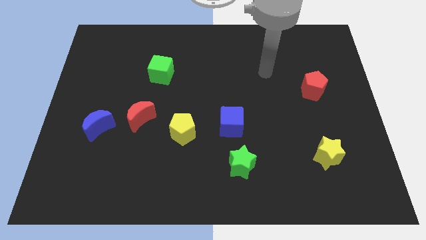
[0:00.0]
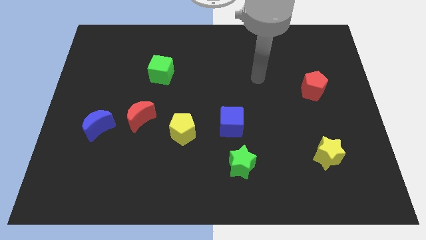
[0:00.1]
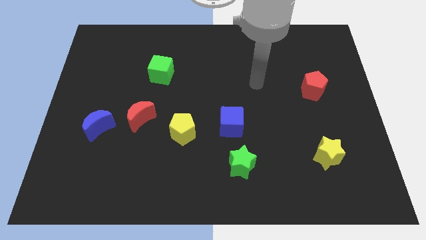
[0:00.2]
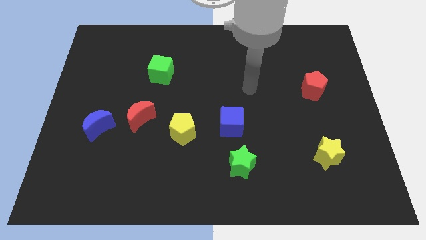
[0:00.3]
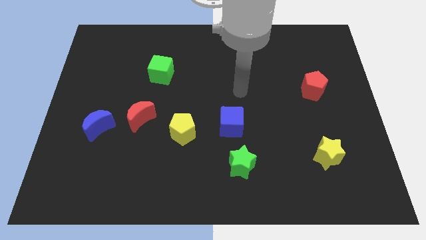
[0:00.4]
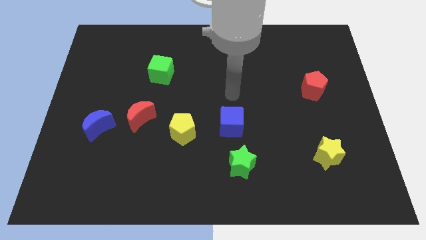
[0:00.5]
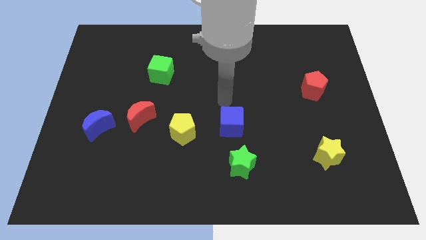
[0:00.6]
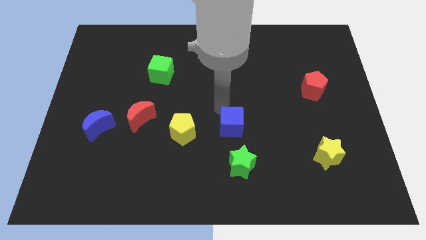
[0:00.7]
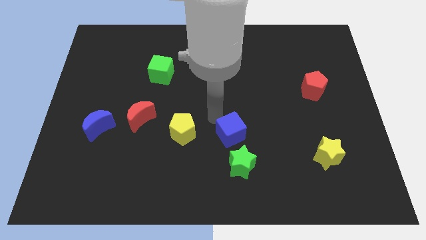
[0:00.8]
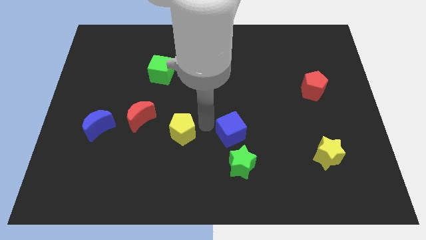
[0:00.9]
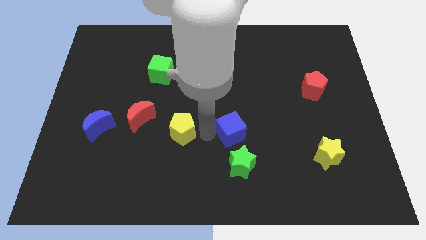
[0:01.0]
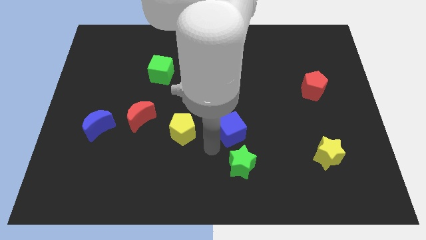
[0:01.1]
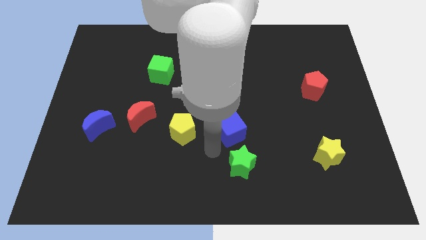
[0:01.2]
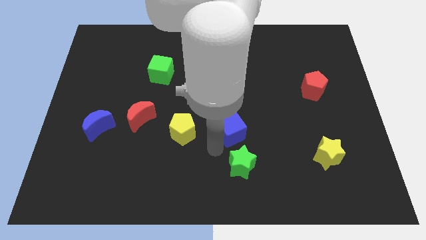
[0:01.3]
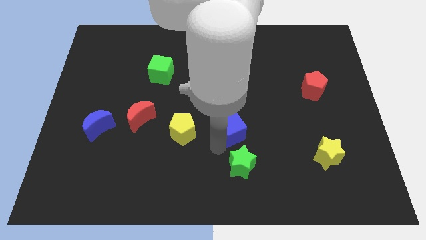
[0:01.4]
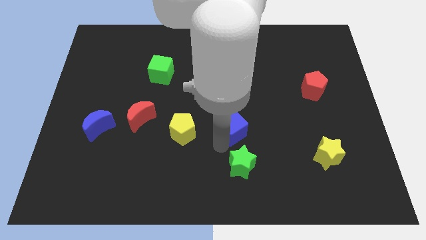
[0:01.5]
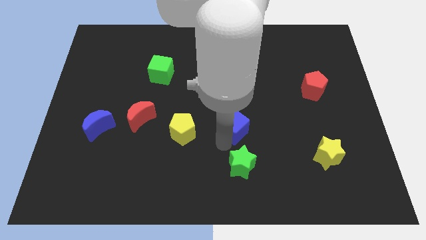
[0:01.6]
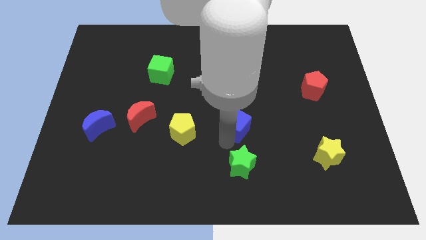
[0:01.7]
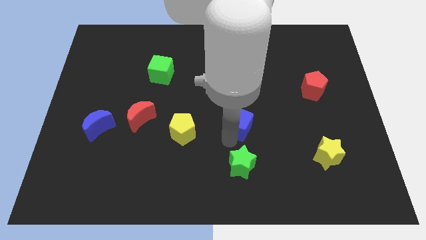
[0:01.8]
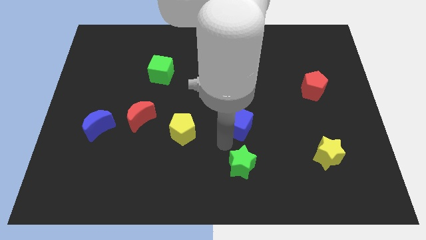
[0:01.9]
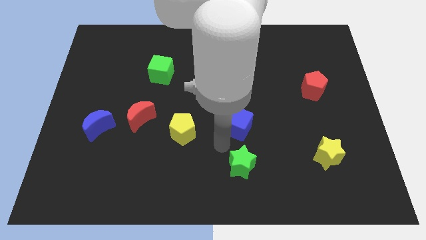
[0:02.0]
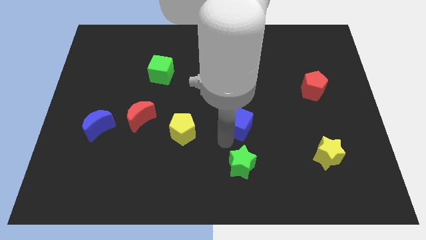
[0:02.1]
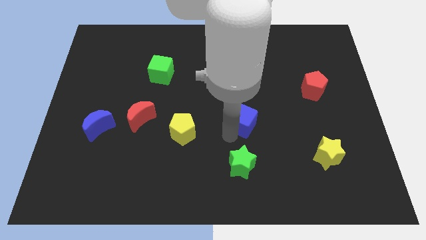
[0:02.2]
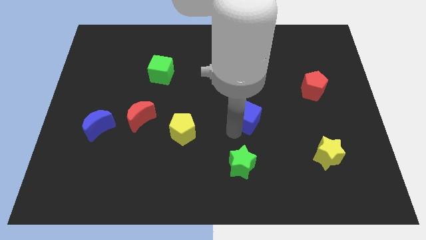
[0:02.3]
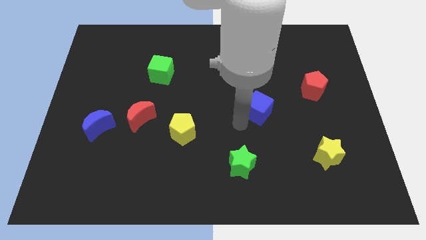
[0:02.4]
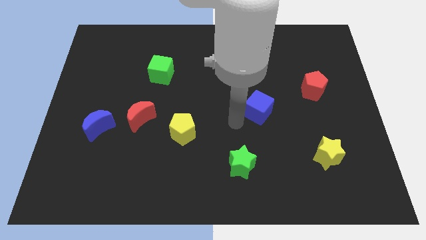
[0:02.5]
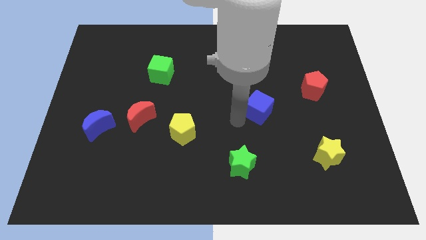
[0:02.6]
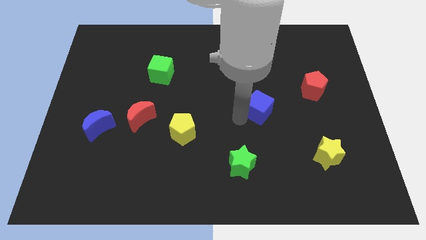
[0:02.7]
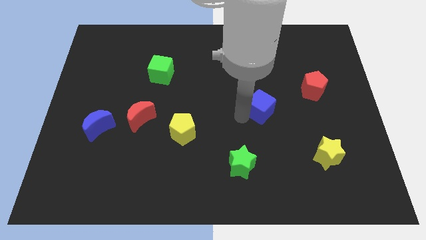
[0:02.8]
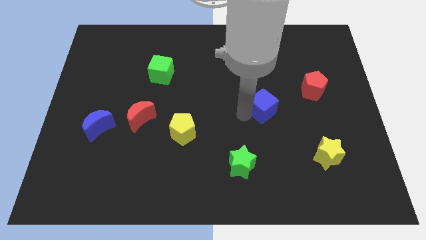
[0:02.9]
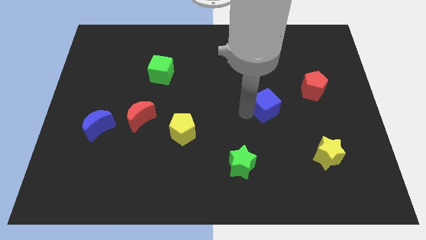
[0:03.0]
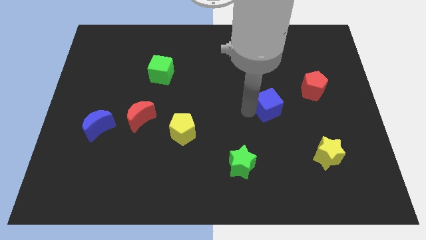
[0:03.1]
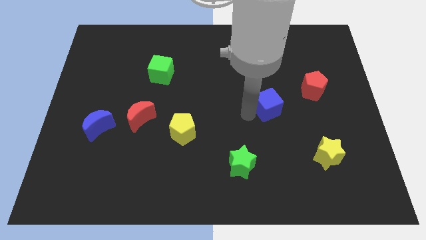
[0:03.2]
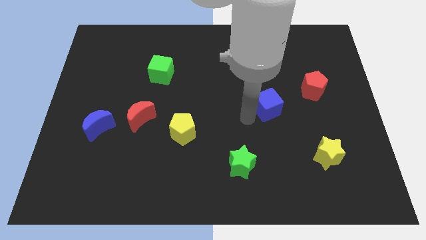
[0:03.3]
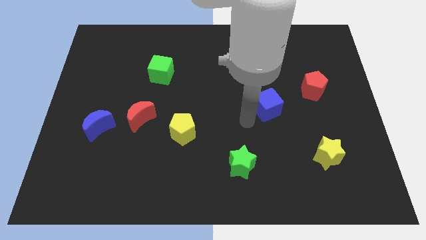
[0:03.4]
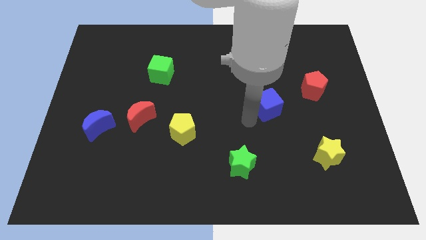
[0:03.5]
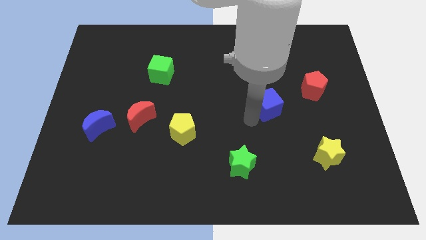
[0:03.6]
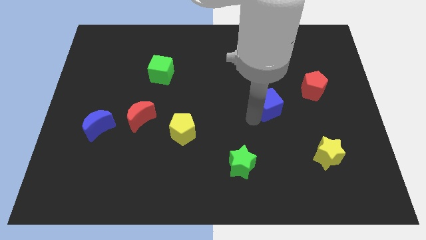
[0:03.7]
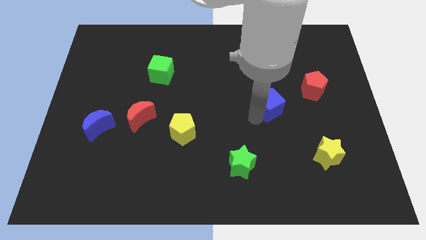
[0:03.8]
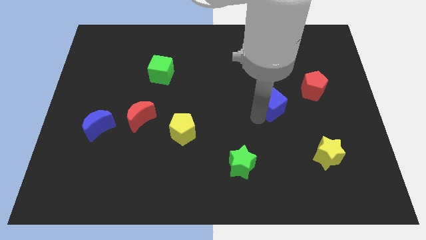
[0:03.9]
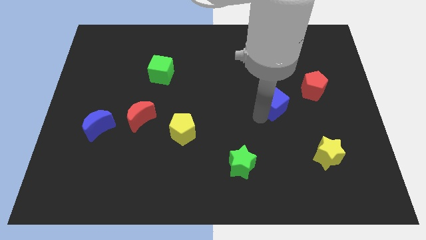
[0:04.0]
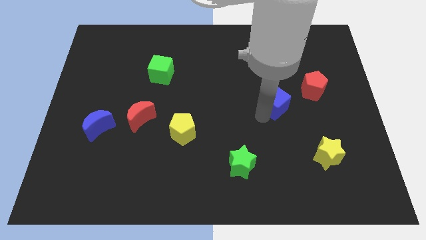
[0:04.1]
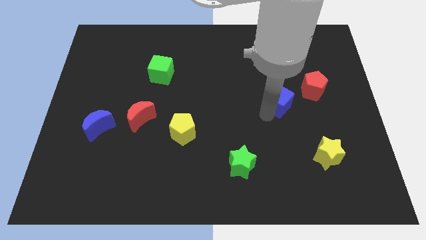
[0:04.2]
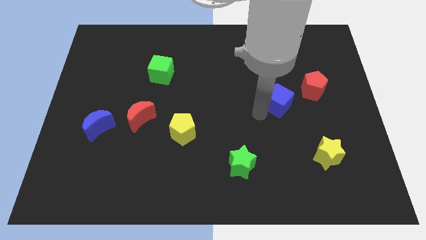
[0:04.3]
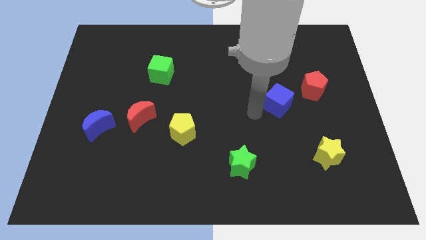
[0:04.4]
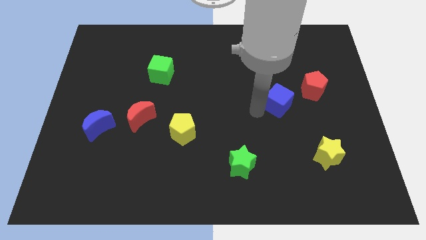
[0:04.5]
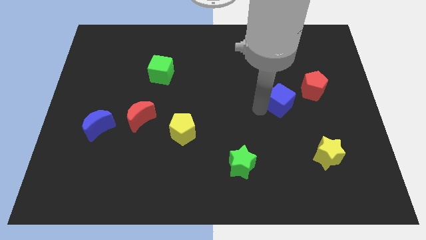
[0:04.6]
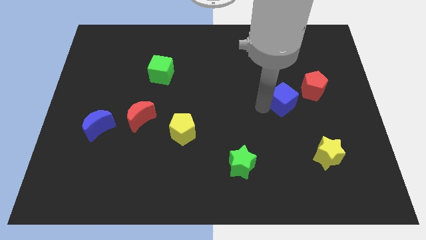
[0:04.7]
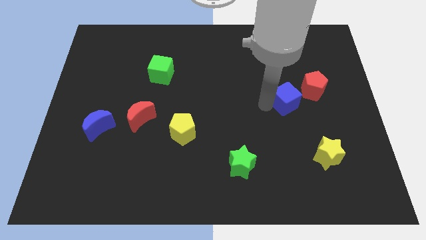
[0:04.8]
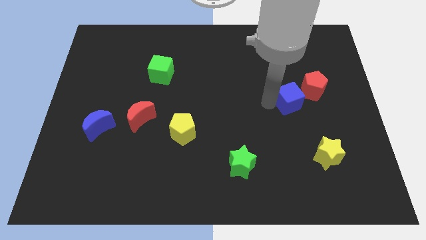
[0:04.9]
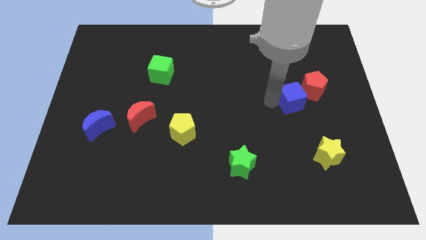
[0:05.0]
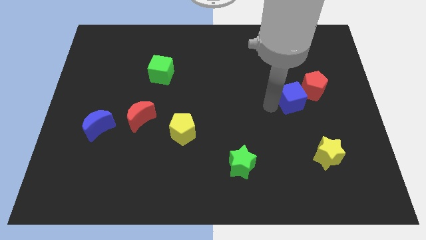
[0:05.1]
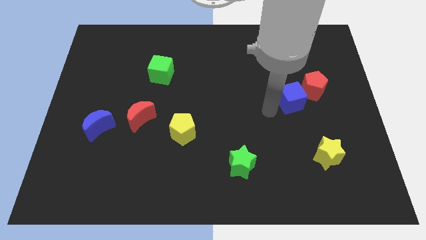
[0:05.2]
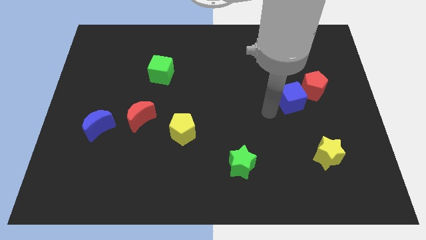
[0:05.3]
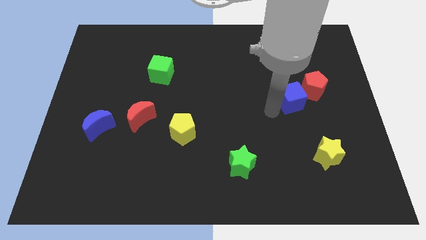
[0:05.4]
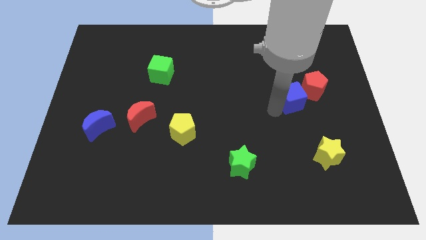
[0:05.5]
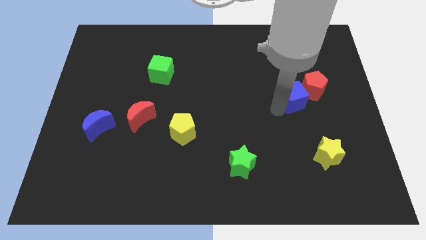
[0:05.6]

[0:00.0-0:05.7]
push the blue cube to the red pentagon

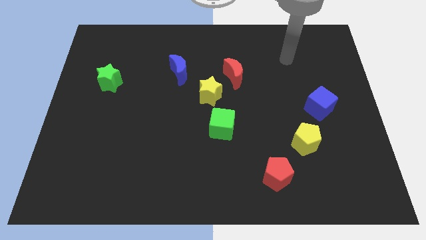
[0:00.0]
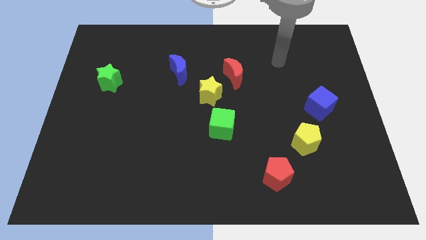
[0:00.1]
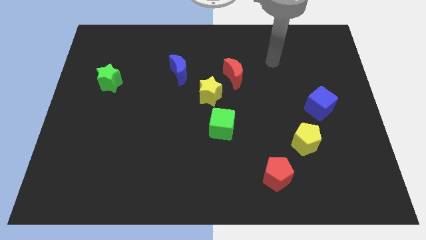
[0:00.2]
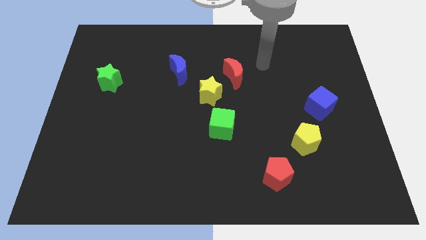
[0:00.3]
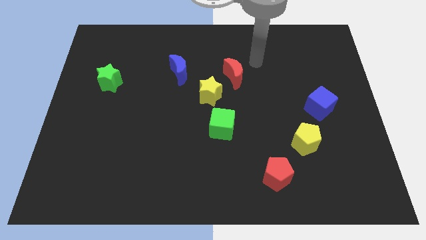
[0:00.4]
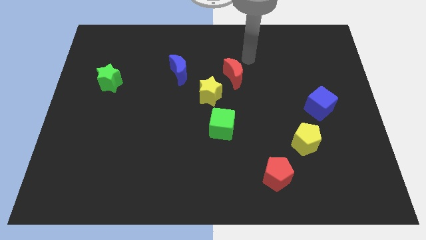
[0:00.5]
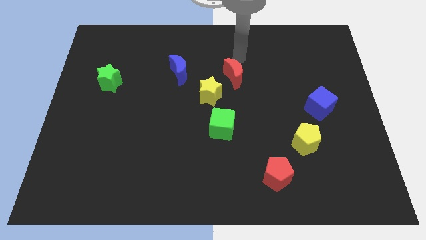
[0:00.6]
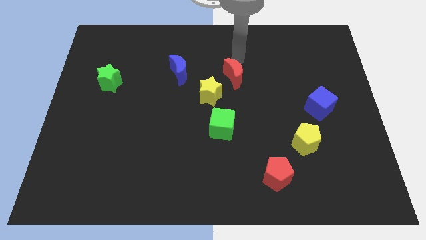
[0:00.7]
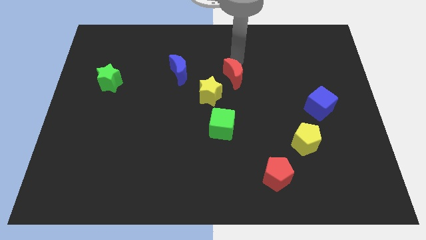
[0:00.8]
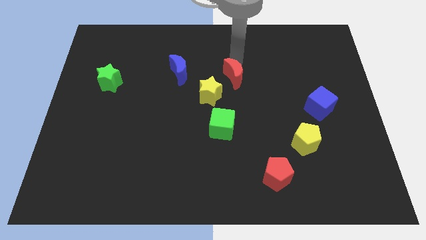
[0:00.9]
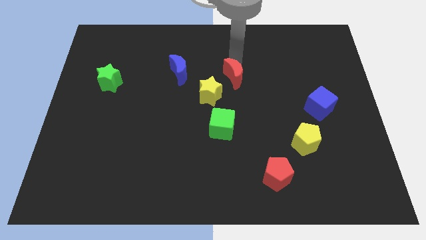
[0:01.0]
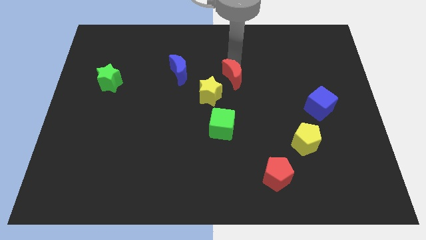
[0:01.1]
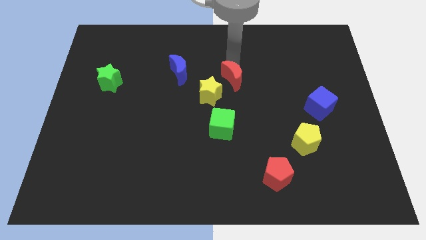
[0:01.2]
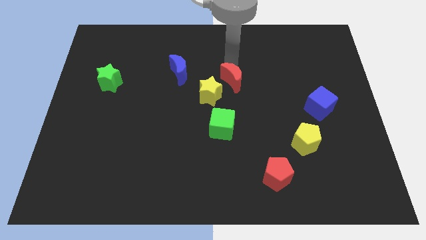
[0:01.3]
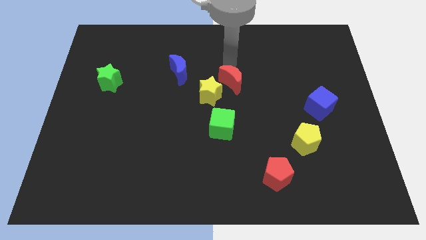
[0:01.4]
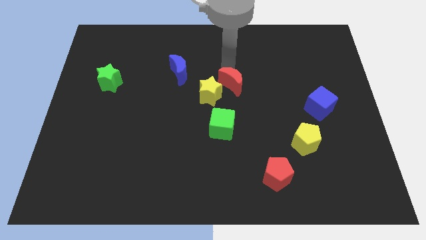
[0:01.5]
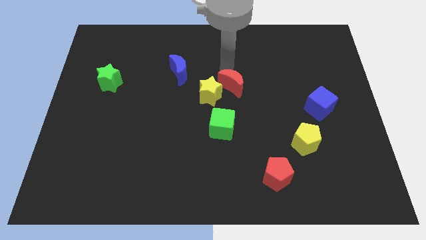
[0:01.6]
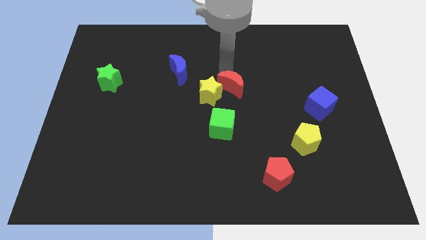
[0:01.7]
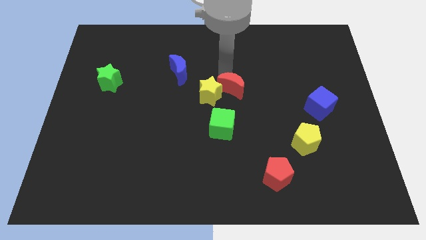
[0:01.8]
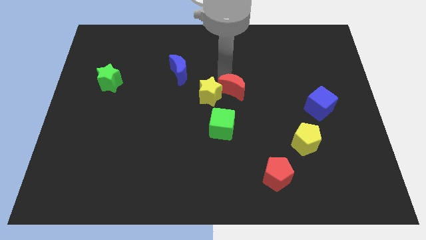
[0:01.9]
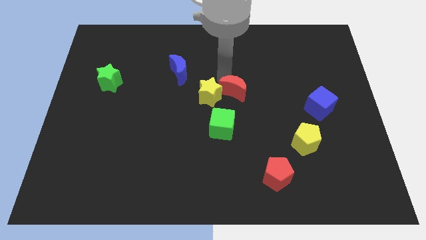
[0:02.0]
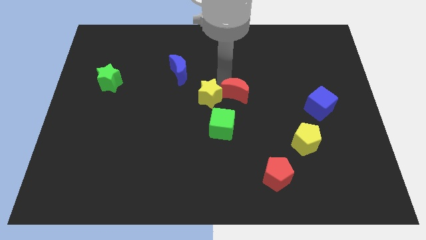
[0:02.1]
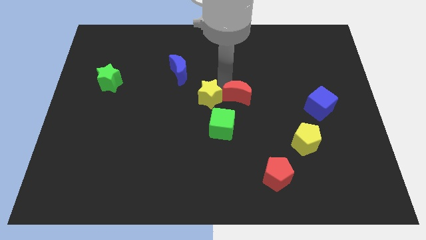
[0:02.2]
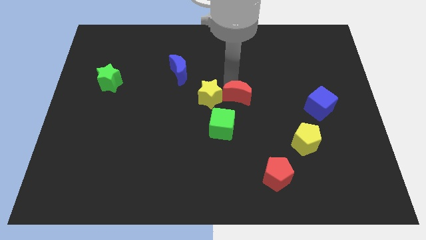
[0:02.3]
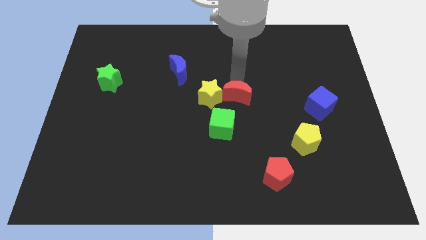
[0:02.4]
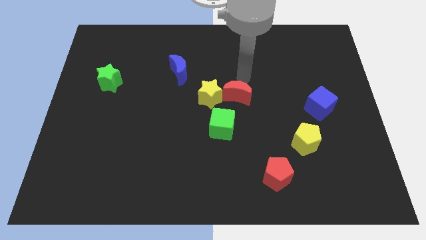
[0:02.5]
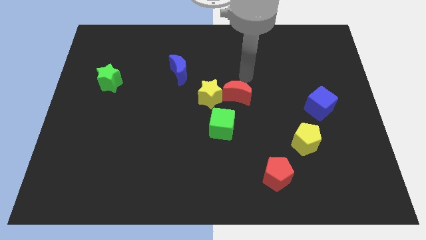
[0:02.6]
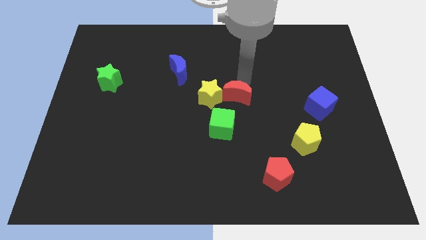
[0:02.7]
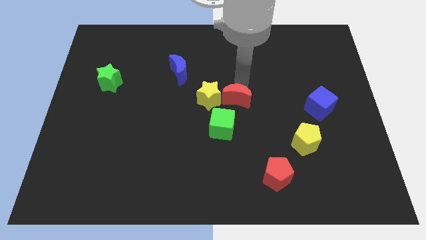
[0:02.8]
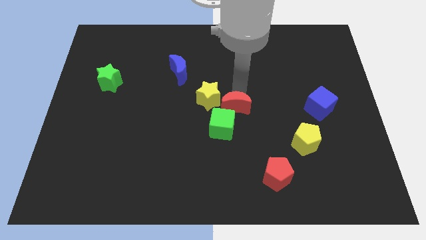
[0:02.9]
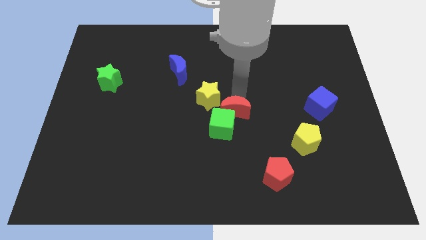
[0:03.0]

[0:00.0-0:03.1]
put the red moon to the green cube
